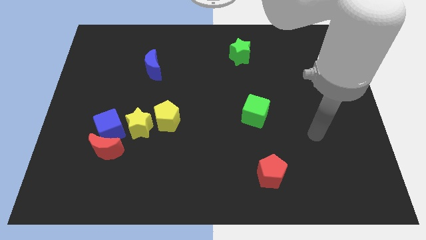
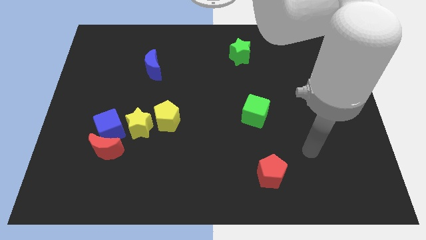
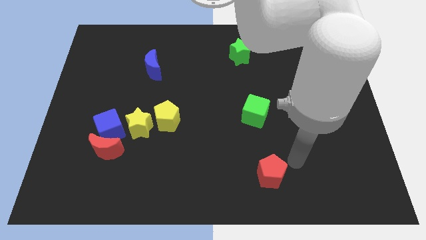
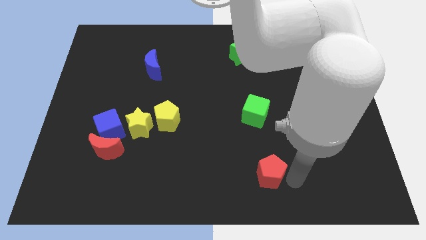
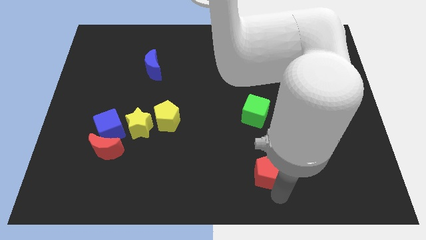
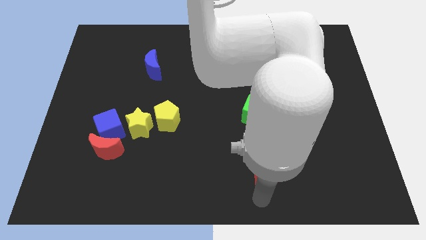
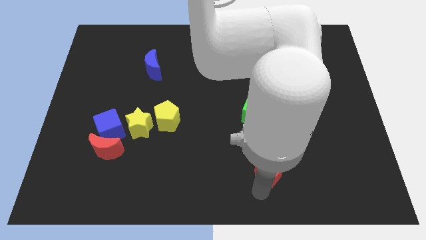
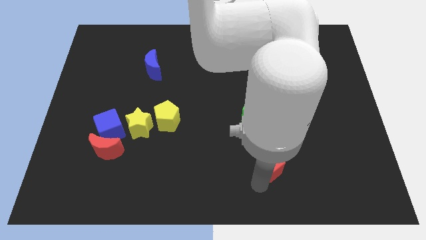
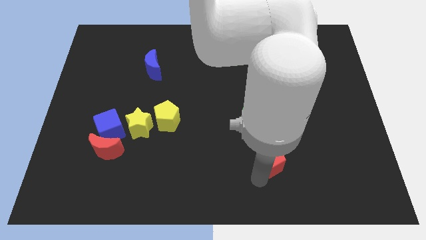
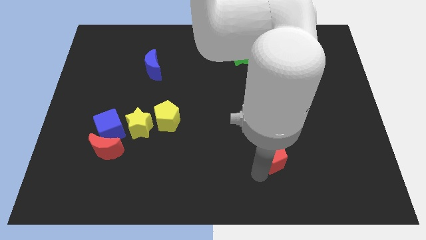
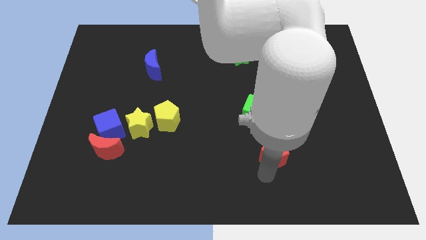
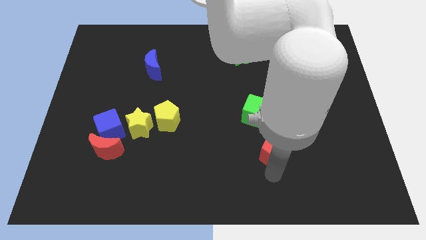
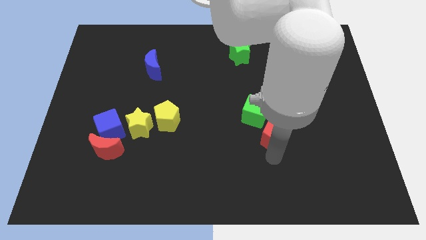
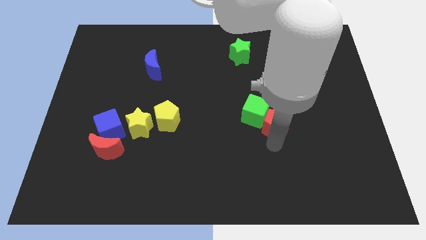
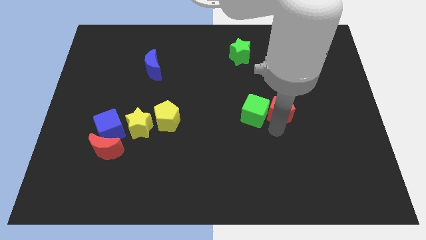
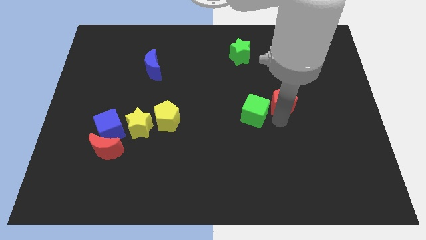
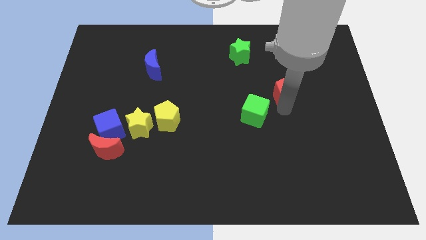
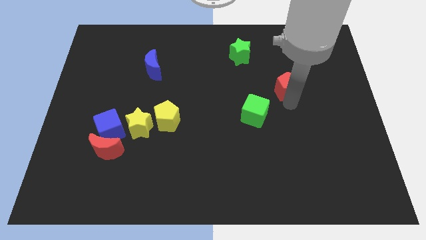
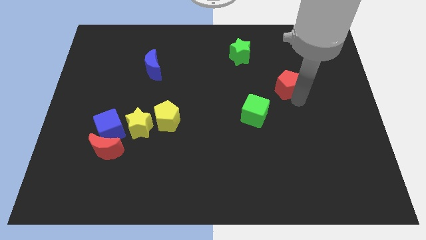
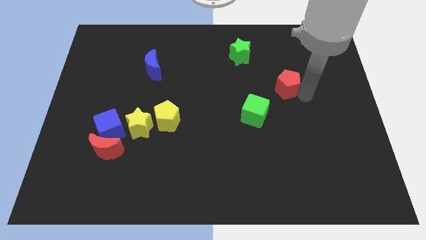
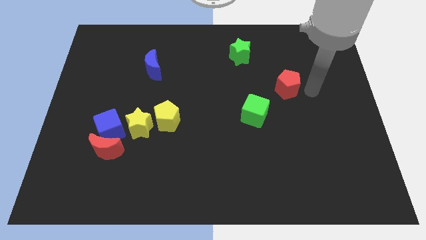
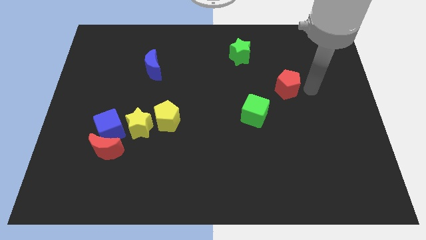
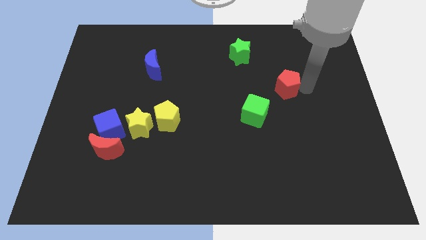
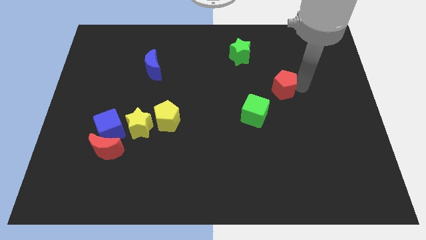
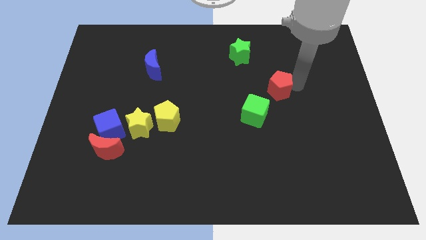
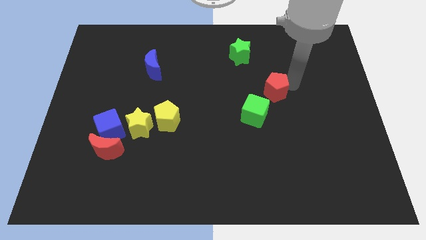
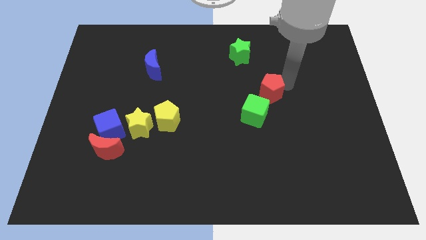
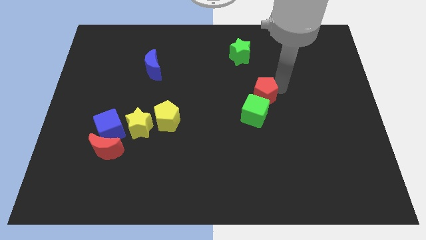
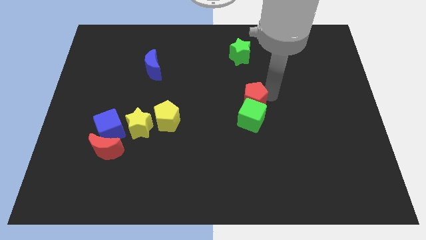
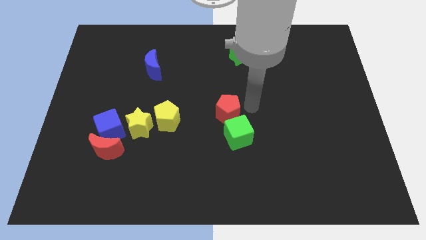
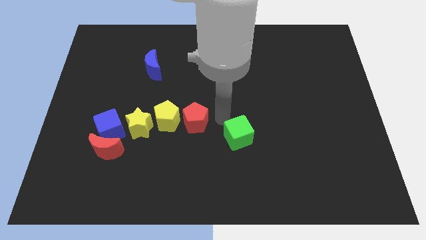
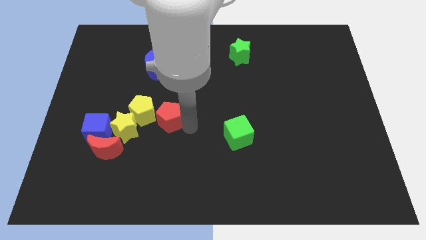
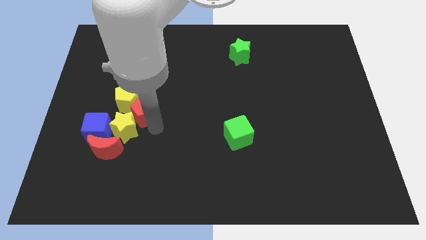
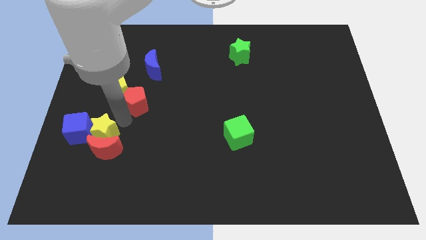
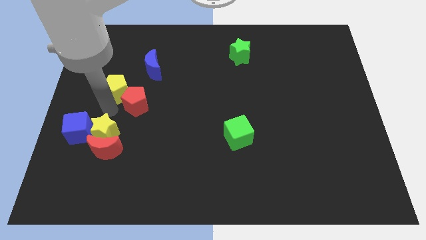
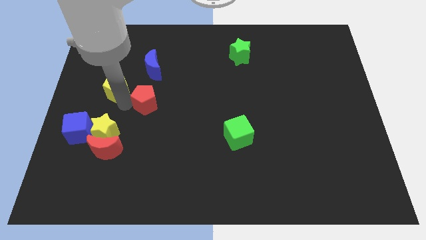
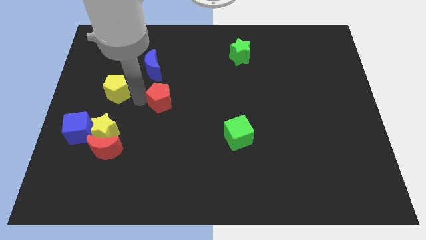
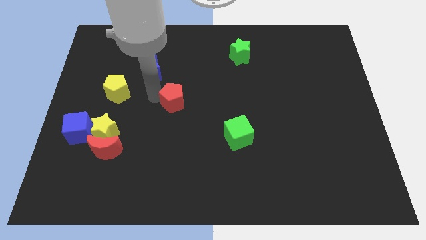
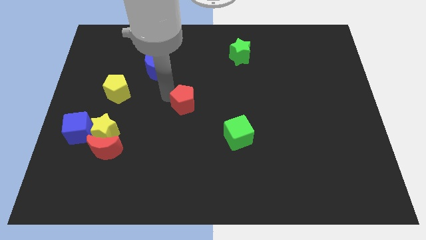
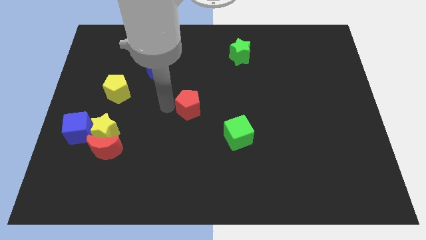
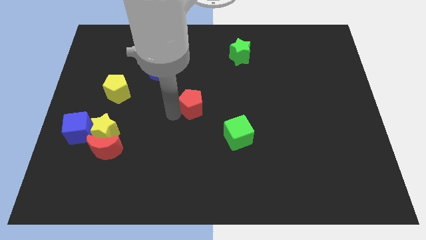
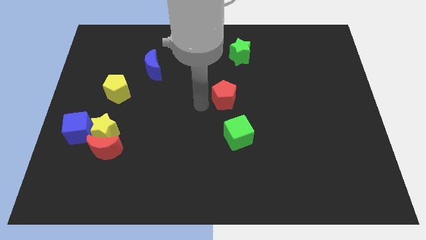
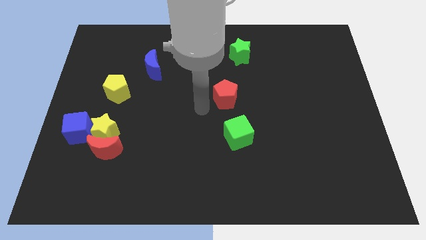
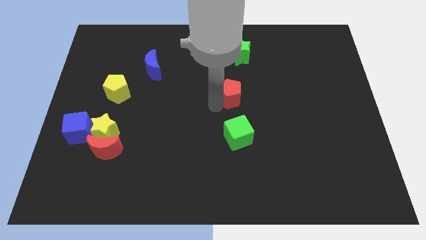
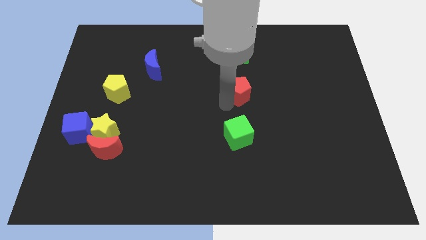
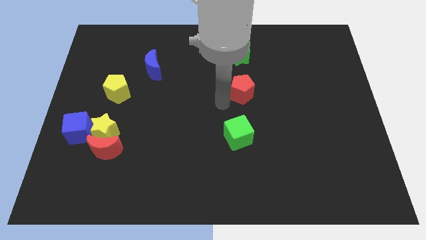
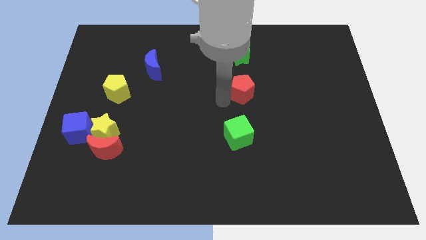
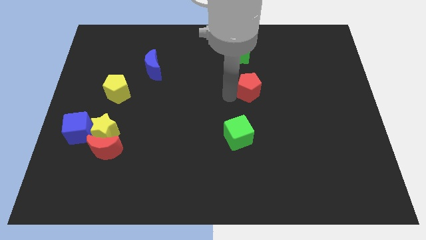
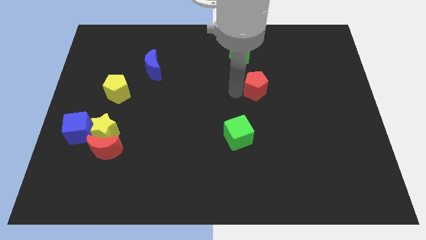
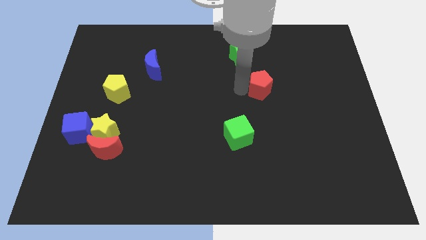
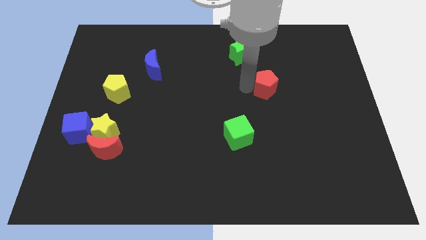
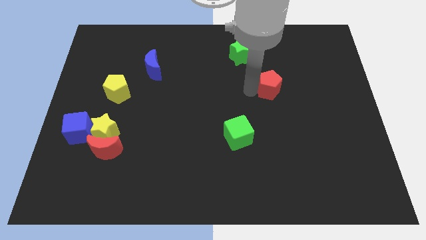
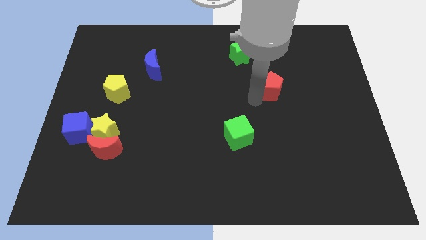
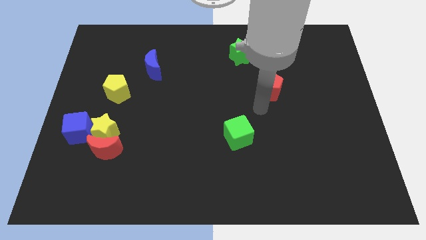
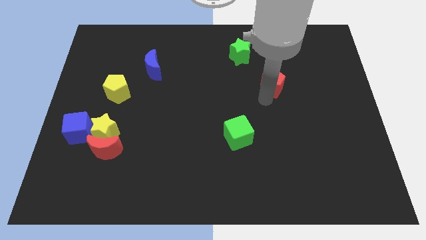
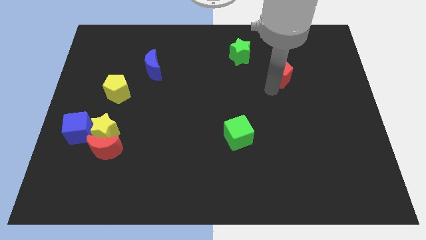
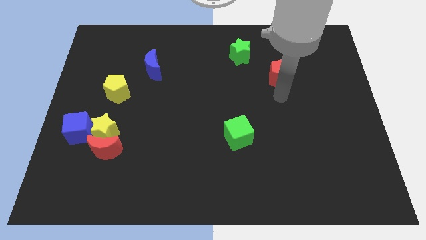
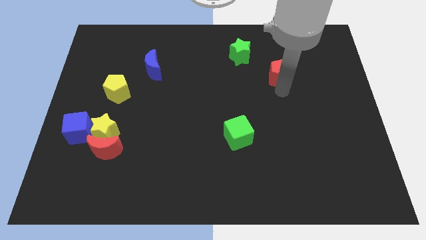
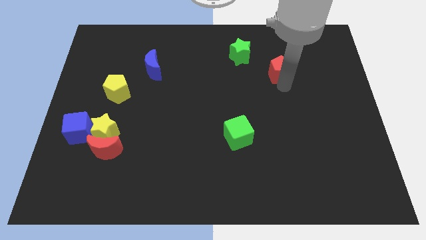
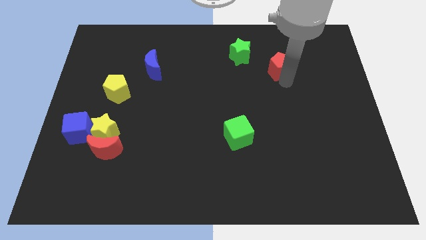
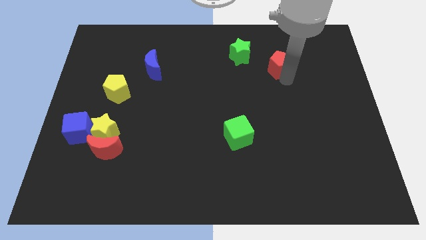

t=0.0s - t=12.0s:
push the red pentagon just right of the green star

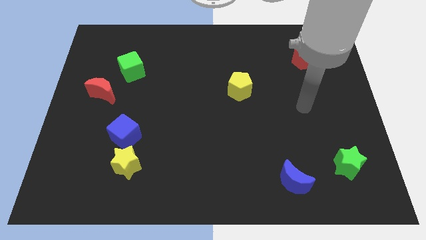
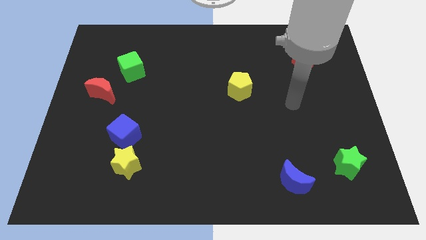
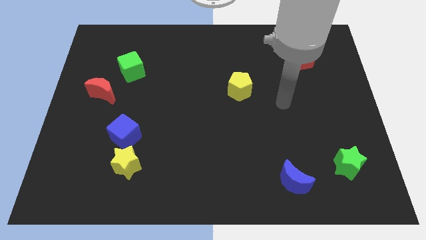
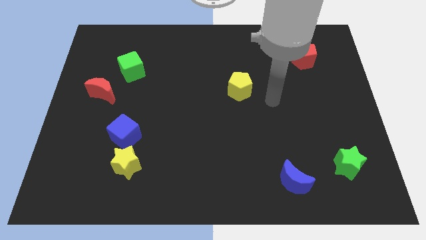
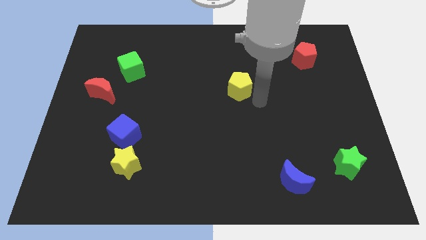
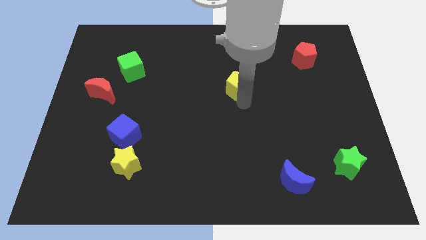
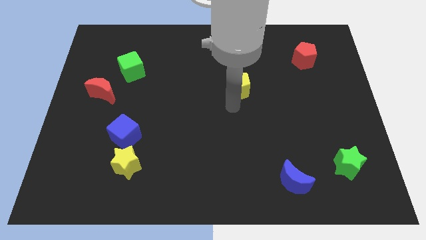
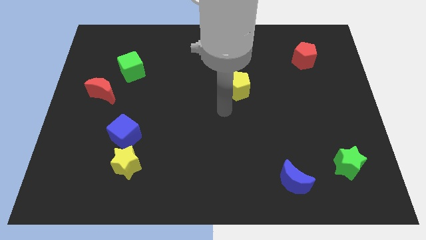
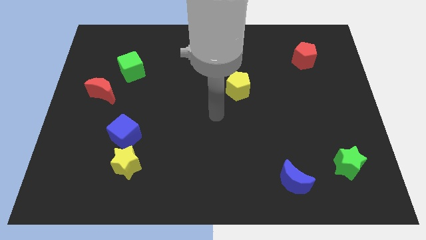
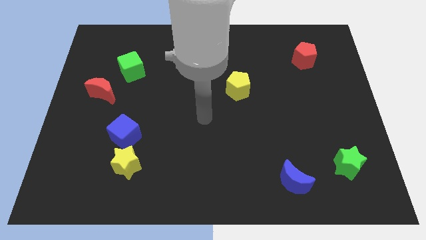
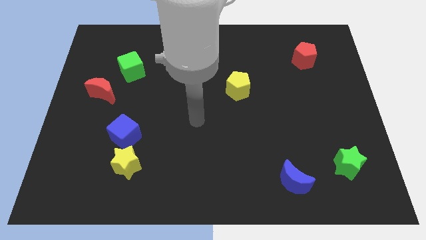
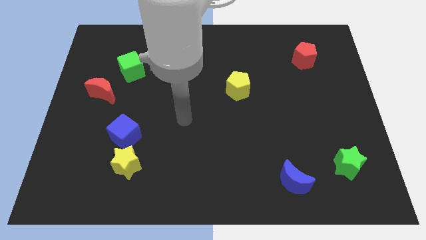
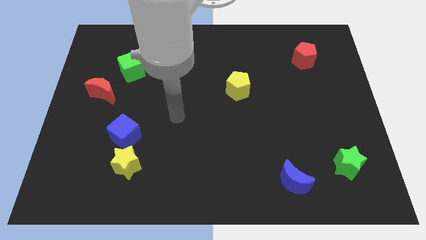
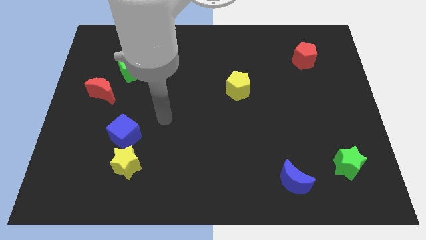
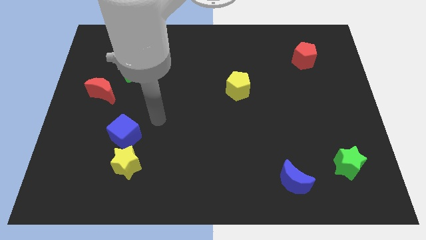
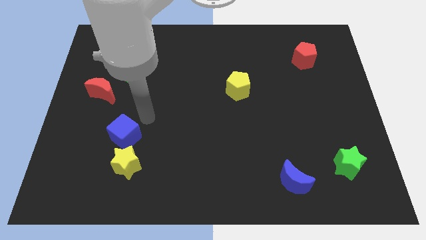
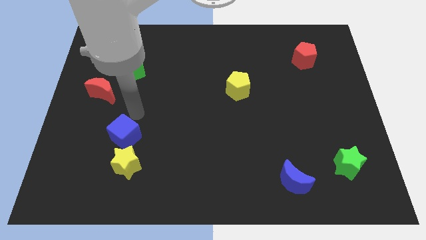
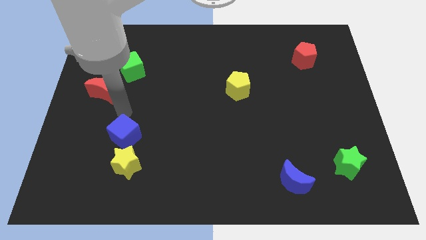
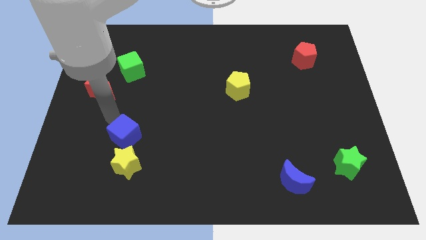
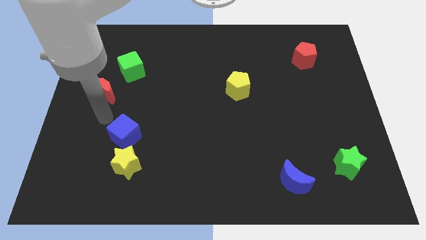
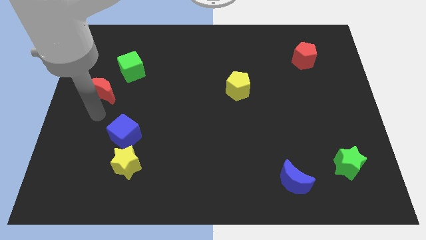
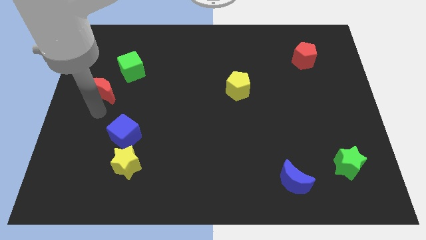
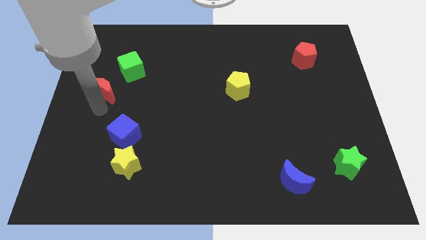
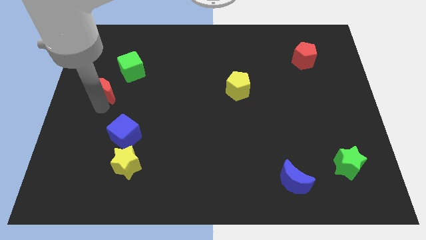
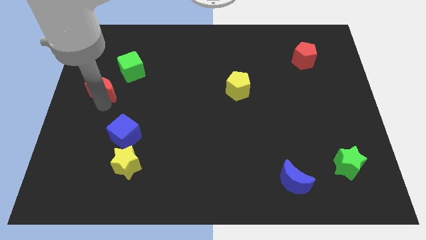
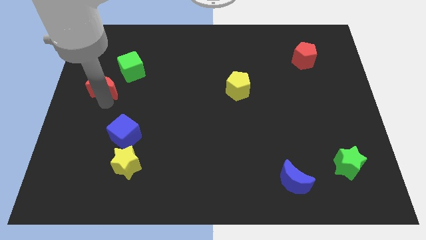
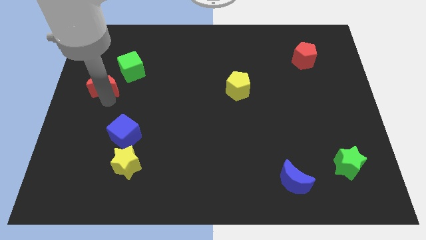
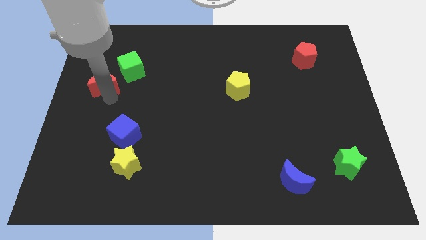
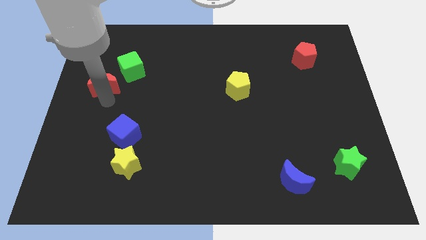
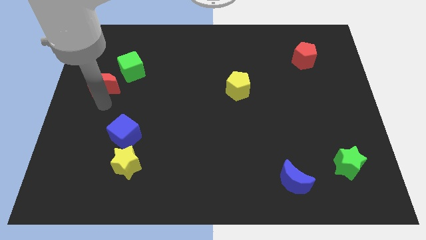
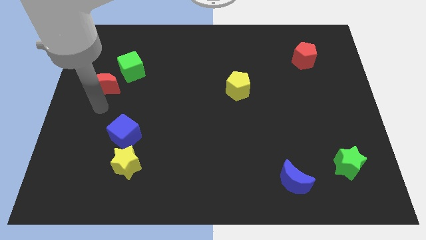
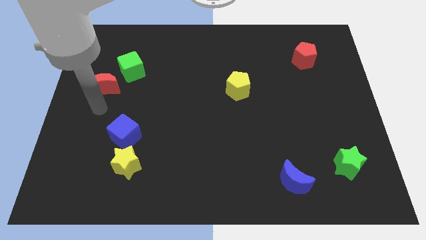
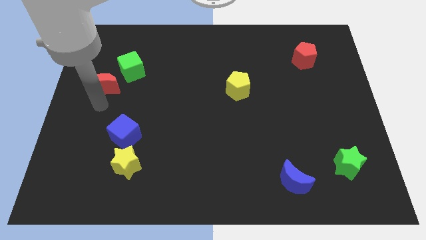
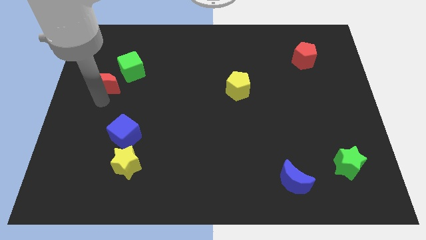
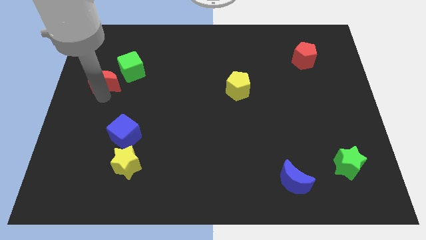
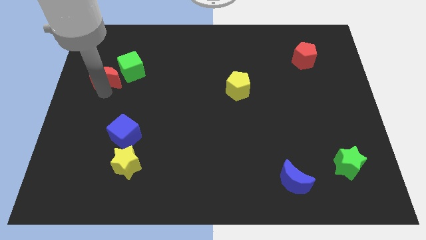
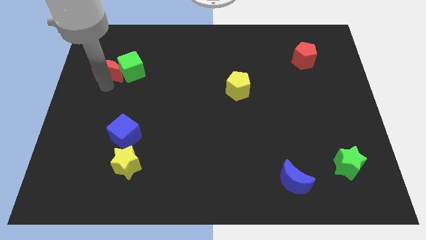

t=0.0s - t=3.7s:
put the red moon to the top left side of the green cube
